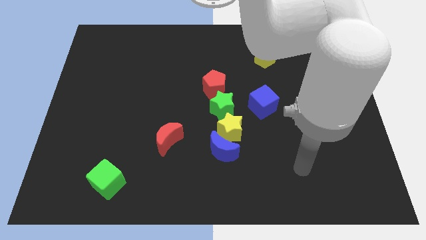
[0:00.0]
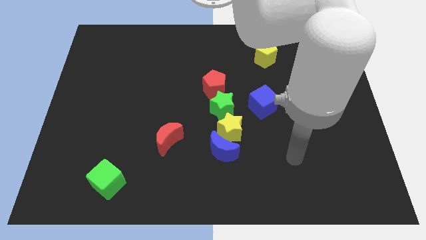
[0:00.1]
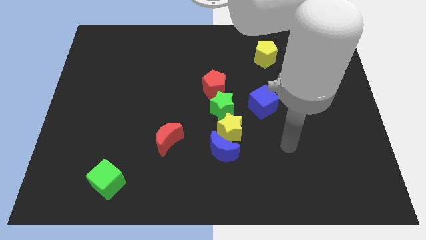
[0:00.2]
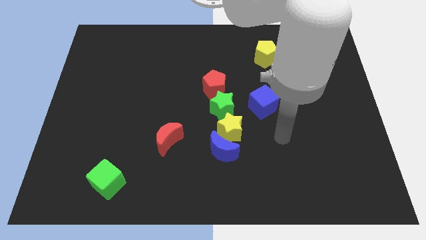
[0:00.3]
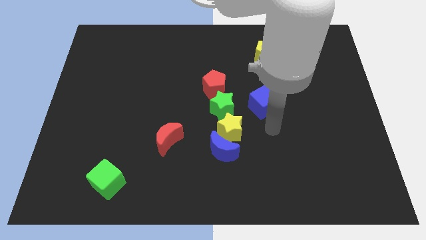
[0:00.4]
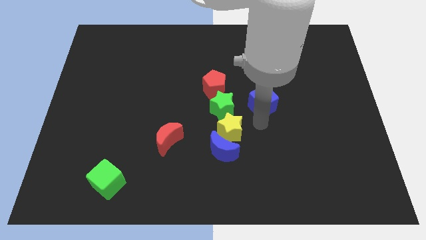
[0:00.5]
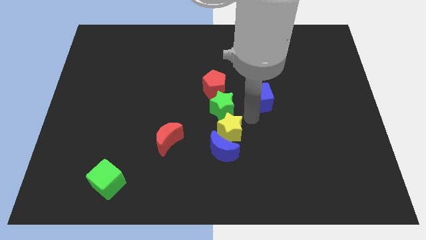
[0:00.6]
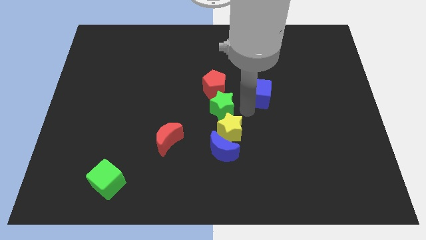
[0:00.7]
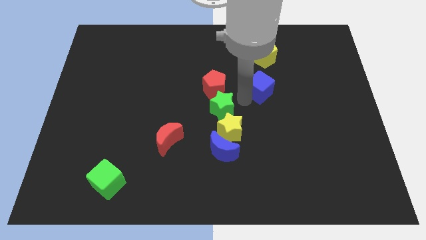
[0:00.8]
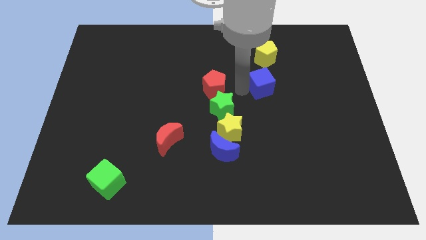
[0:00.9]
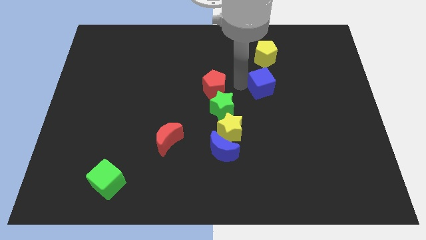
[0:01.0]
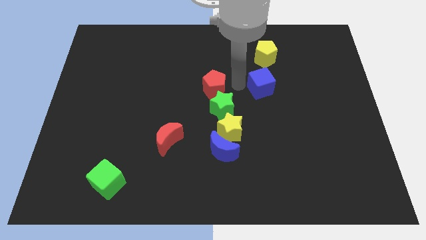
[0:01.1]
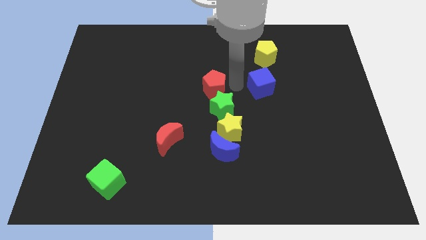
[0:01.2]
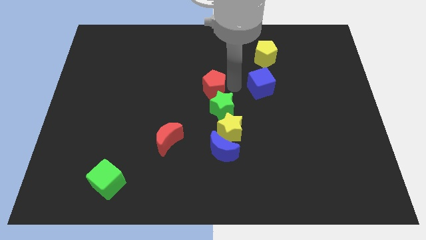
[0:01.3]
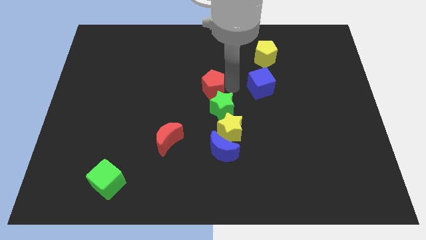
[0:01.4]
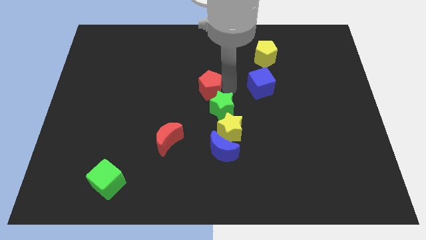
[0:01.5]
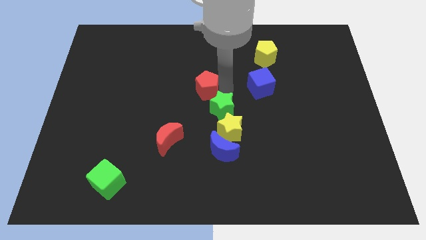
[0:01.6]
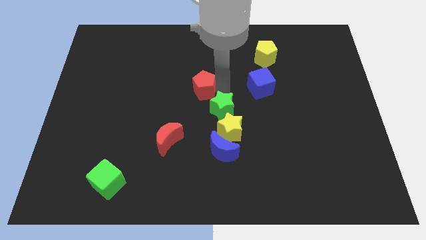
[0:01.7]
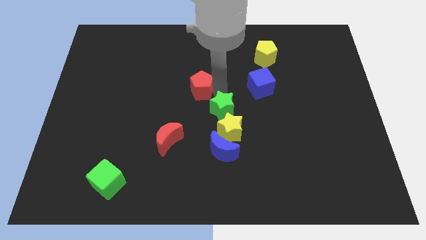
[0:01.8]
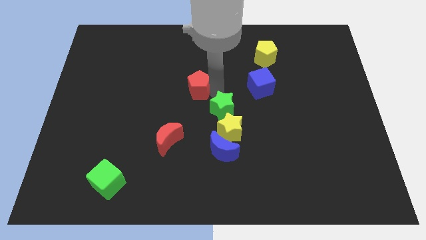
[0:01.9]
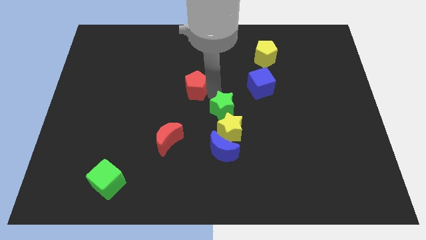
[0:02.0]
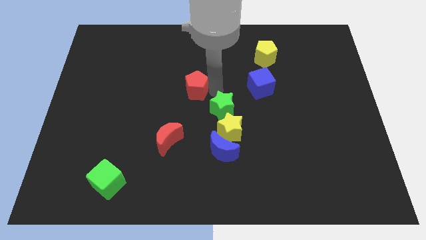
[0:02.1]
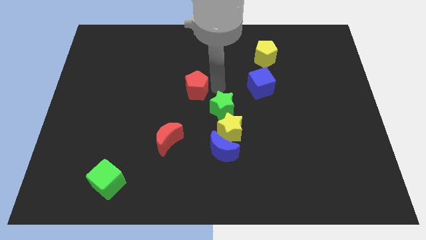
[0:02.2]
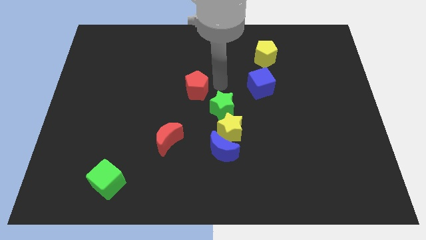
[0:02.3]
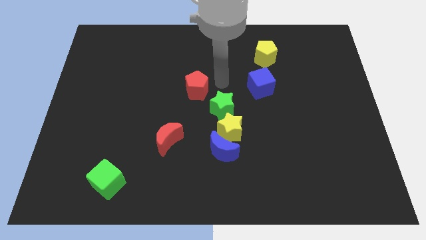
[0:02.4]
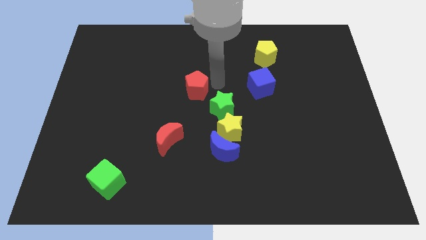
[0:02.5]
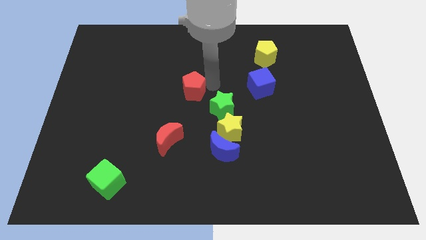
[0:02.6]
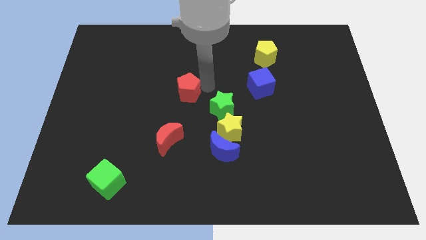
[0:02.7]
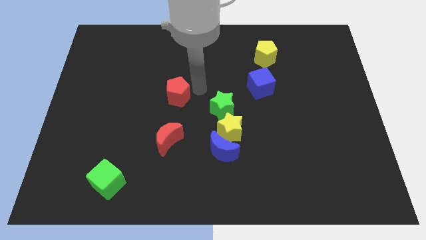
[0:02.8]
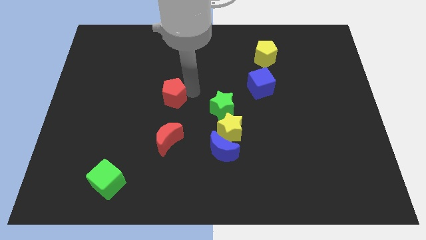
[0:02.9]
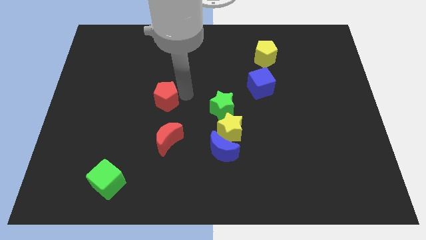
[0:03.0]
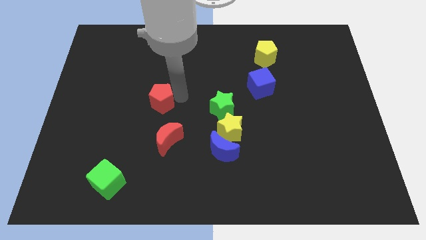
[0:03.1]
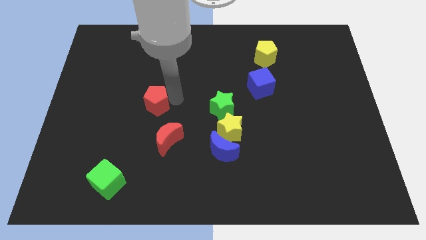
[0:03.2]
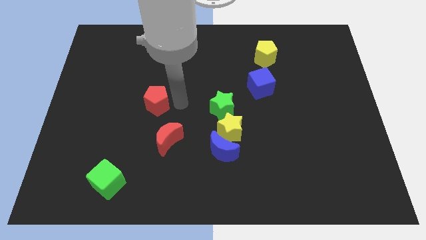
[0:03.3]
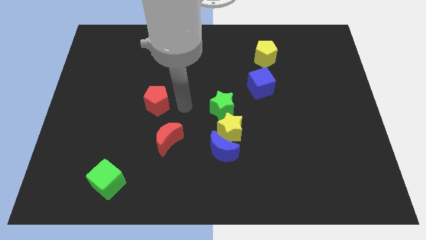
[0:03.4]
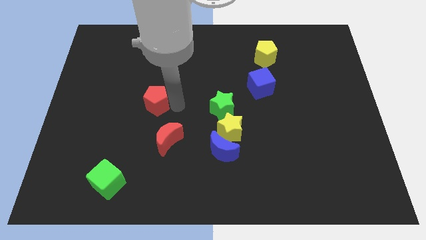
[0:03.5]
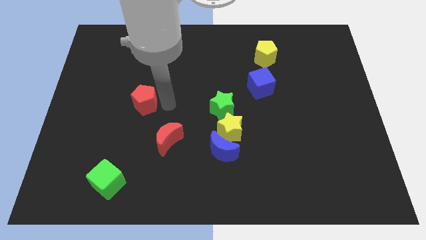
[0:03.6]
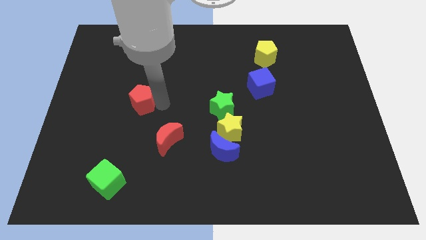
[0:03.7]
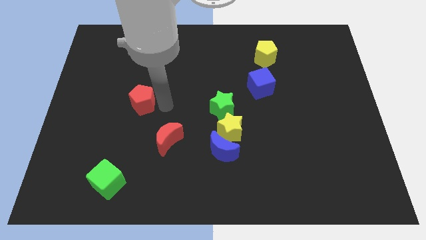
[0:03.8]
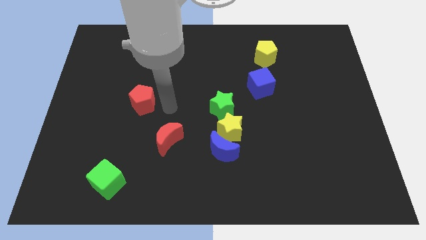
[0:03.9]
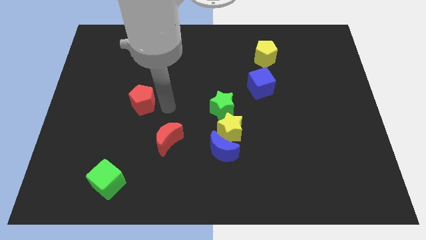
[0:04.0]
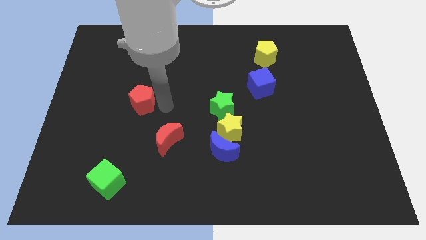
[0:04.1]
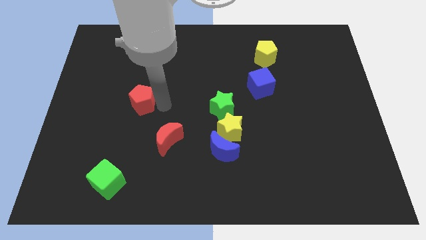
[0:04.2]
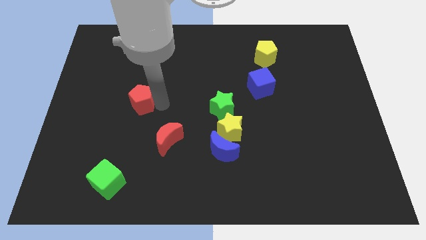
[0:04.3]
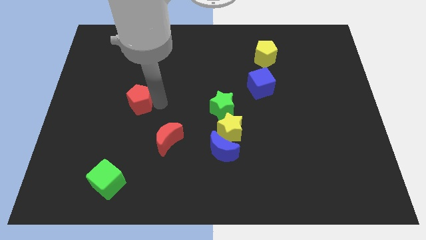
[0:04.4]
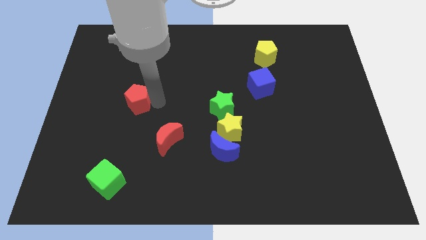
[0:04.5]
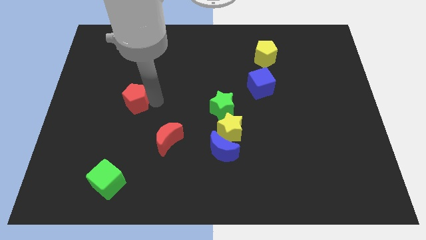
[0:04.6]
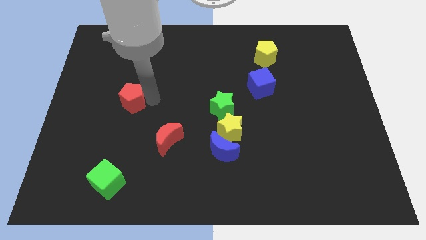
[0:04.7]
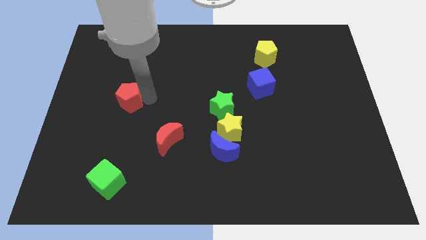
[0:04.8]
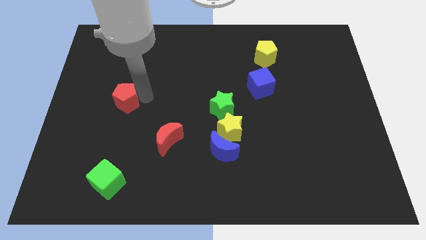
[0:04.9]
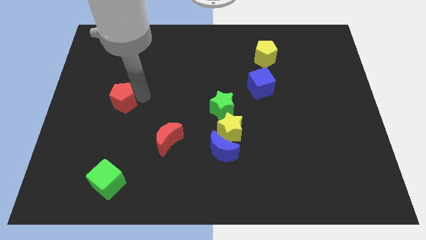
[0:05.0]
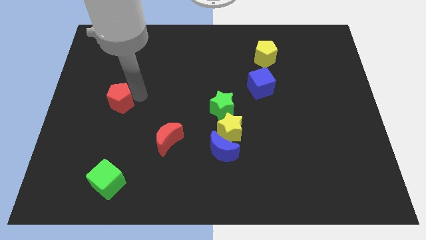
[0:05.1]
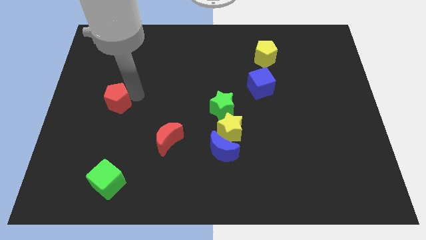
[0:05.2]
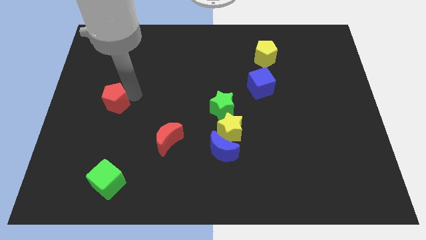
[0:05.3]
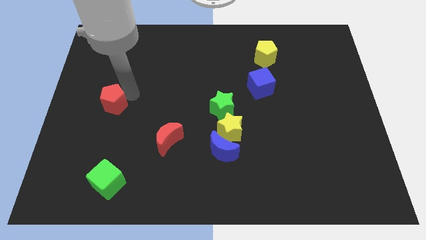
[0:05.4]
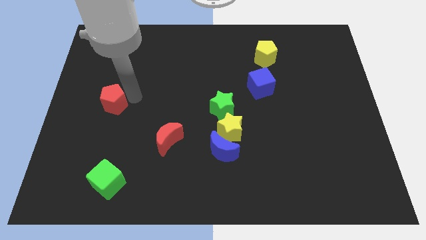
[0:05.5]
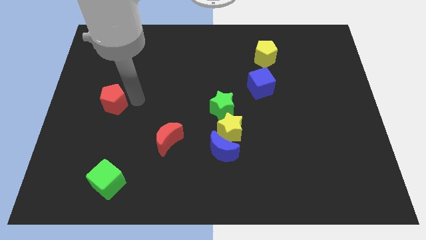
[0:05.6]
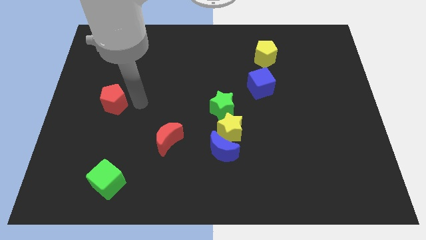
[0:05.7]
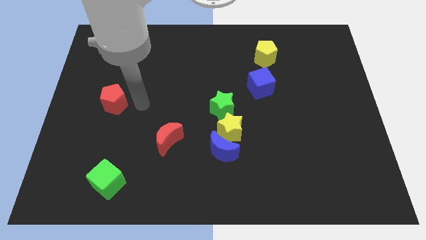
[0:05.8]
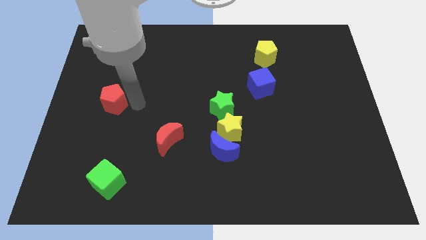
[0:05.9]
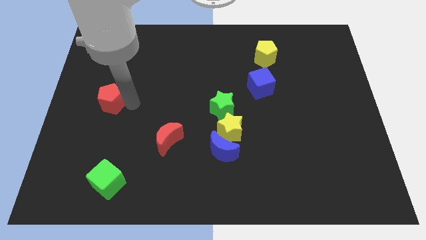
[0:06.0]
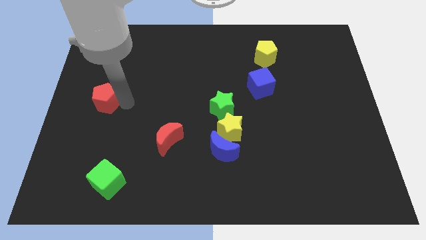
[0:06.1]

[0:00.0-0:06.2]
put the red pentagon to the center left
